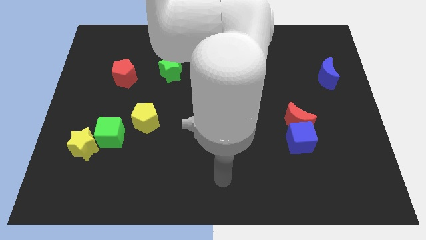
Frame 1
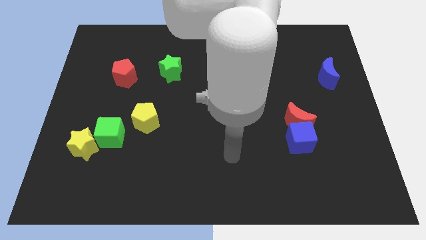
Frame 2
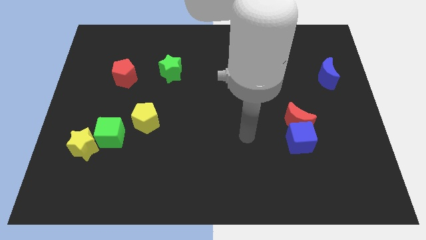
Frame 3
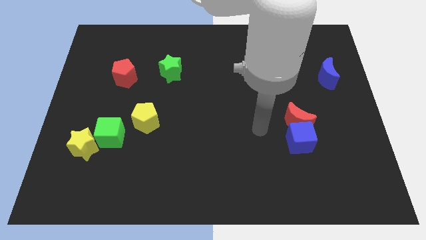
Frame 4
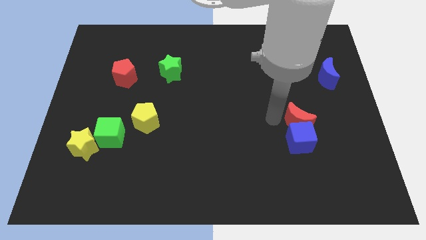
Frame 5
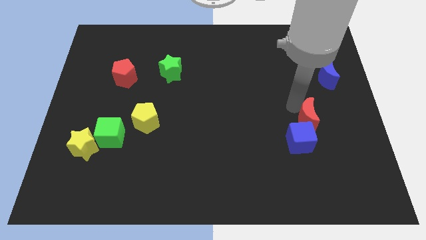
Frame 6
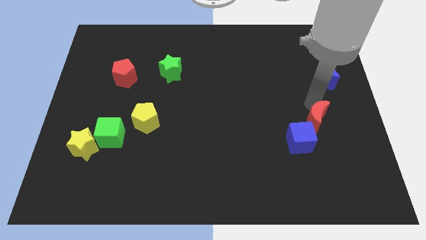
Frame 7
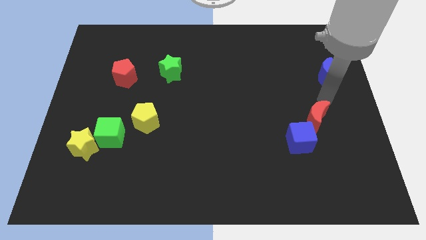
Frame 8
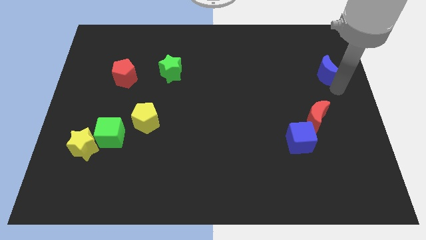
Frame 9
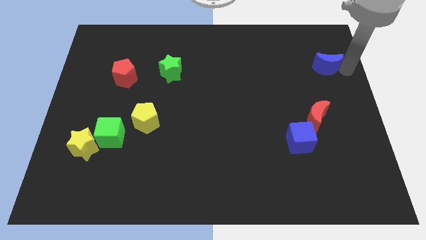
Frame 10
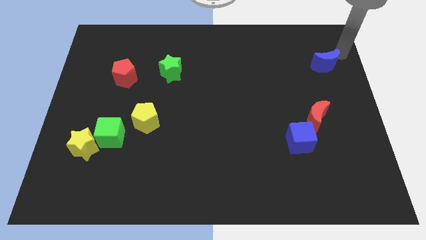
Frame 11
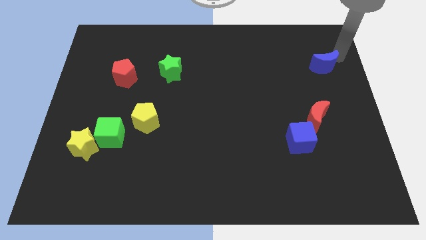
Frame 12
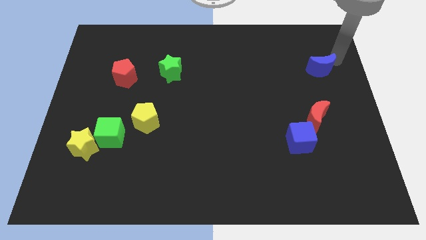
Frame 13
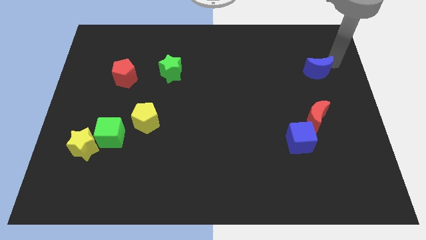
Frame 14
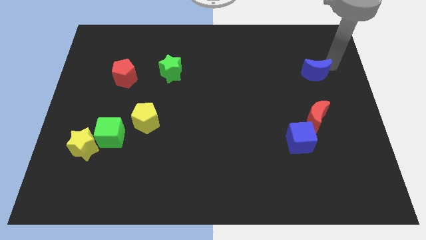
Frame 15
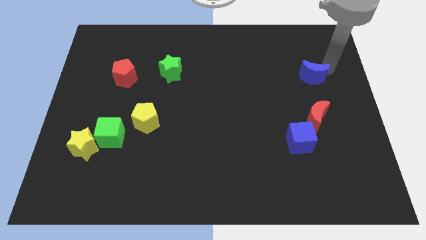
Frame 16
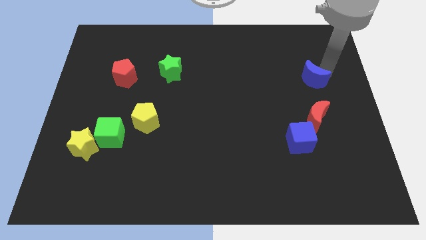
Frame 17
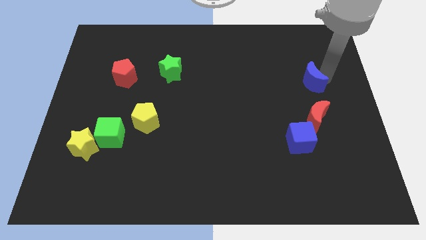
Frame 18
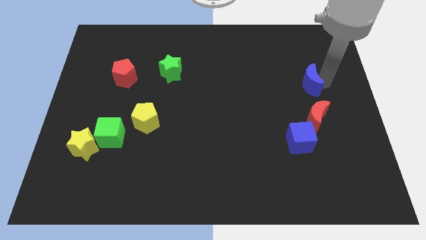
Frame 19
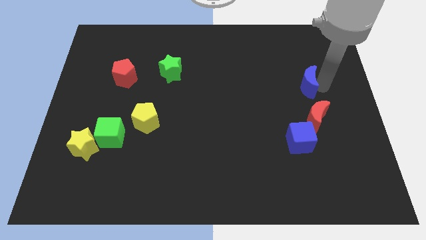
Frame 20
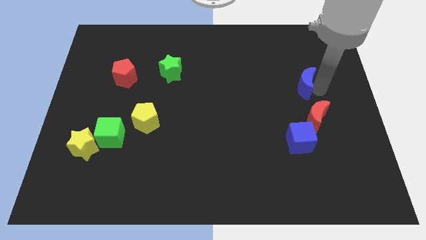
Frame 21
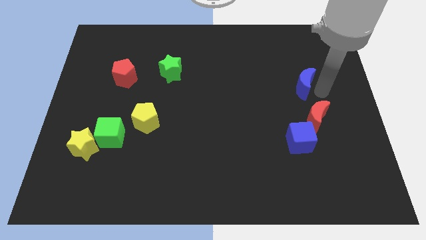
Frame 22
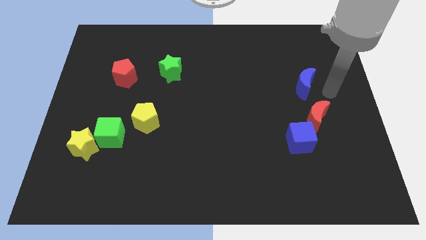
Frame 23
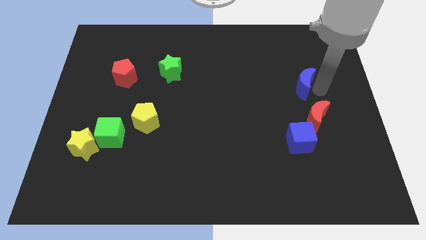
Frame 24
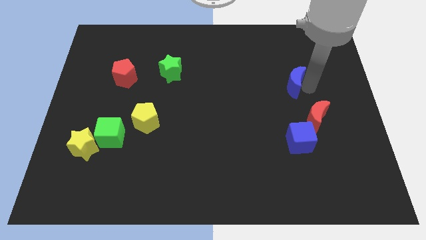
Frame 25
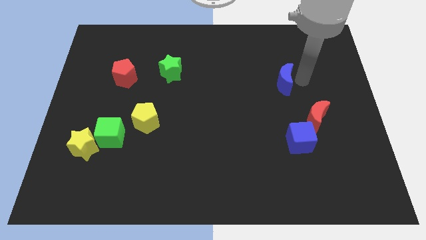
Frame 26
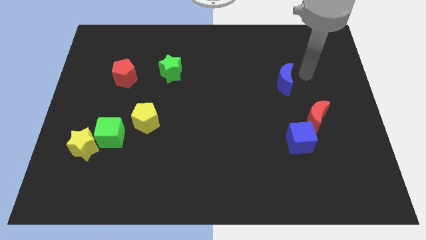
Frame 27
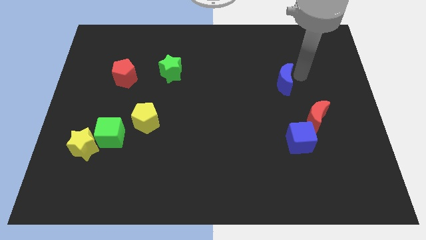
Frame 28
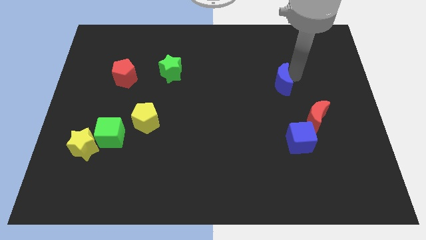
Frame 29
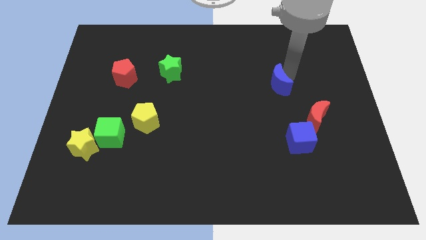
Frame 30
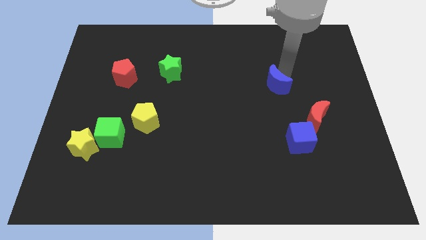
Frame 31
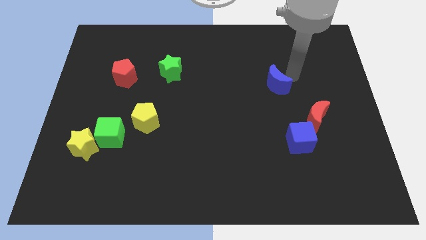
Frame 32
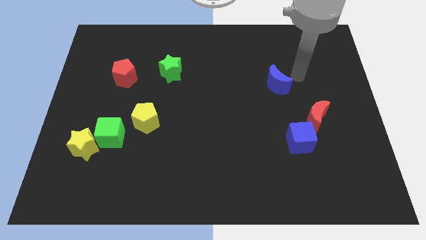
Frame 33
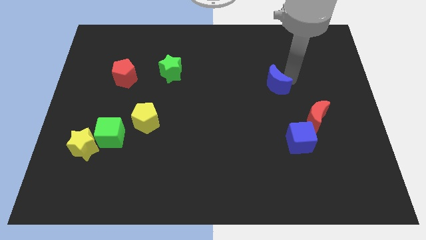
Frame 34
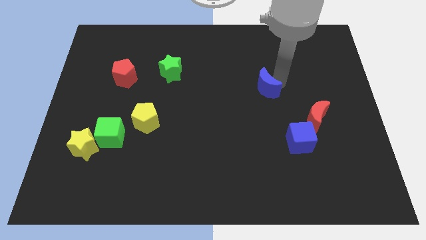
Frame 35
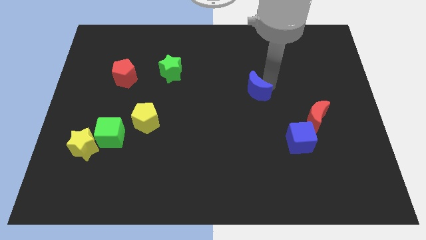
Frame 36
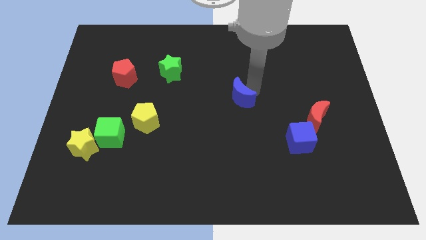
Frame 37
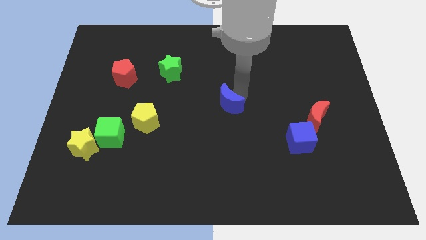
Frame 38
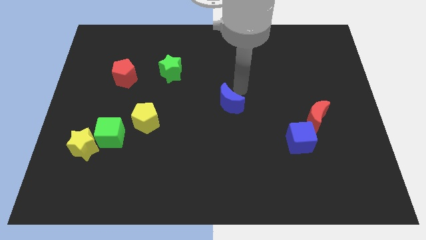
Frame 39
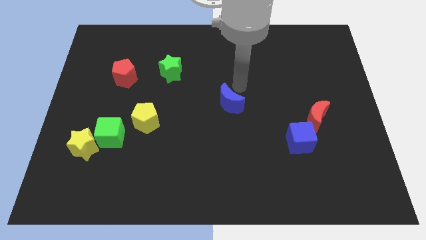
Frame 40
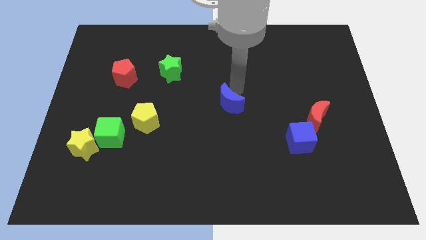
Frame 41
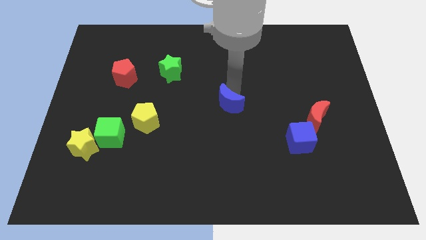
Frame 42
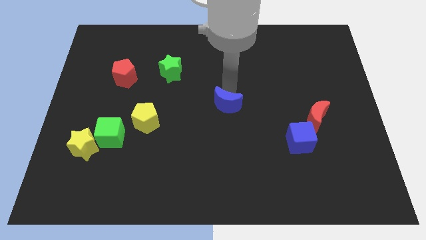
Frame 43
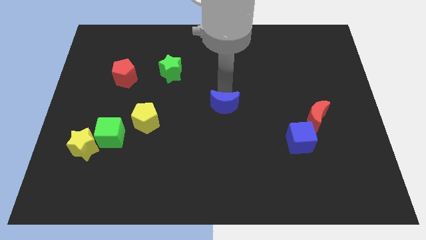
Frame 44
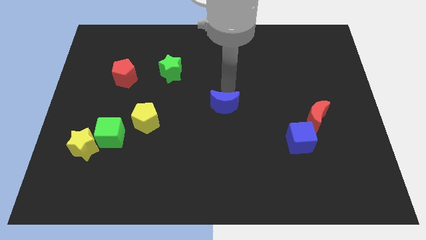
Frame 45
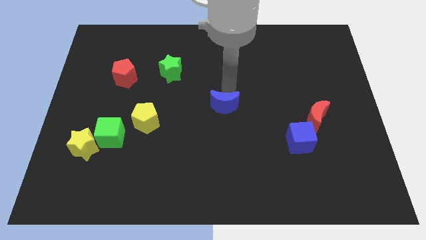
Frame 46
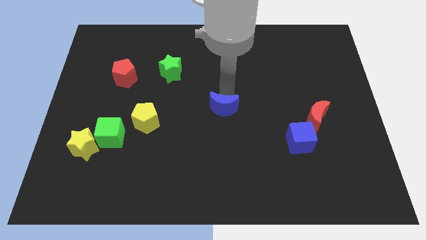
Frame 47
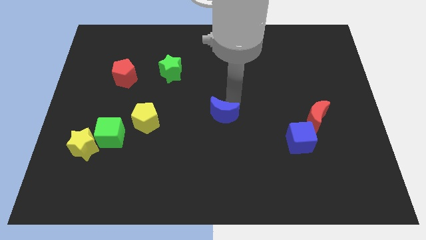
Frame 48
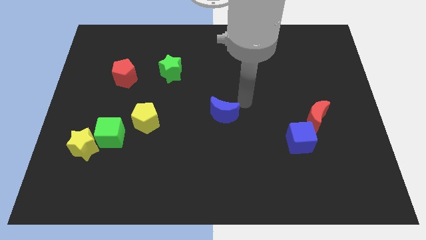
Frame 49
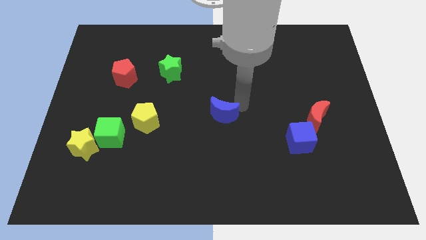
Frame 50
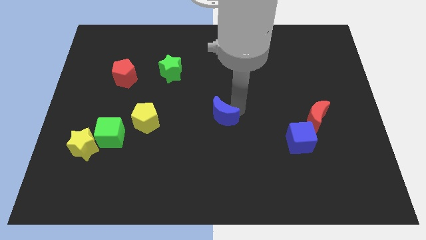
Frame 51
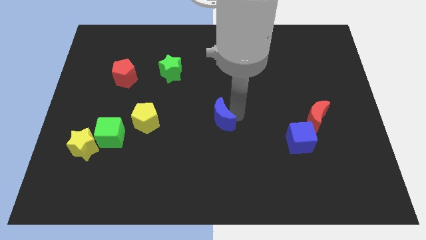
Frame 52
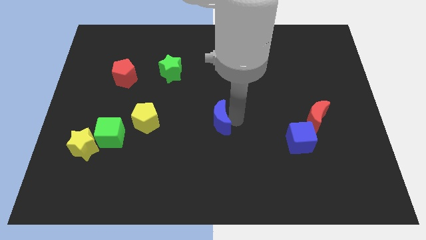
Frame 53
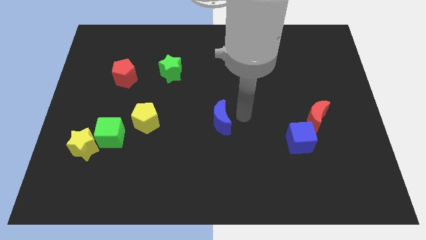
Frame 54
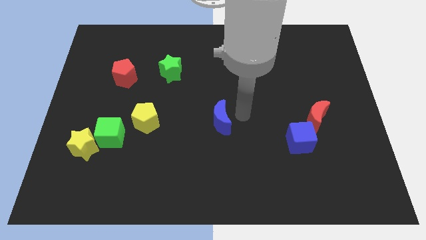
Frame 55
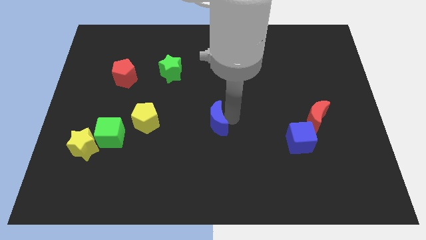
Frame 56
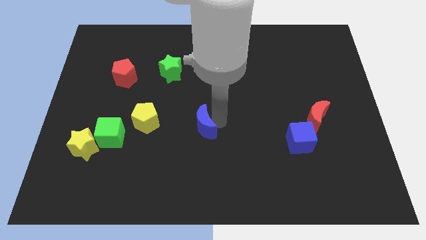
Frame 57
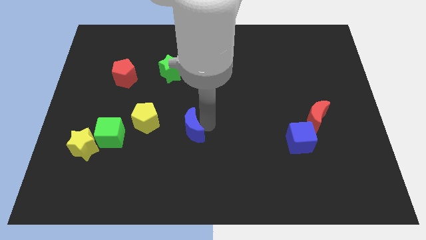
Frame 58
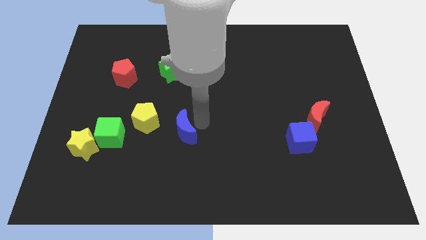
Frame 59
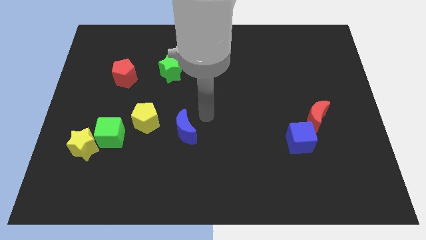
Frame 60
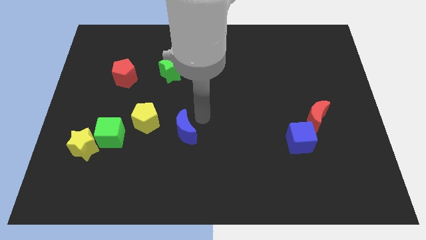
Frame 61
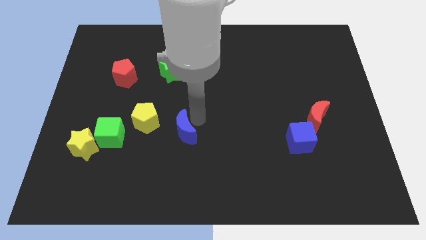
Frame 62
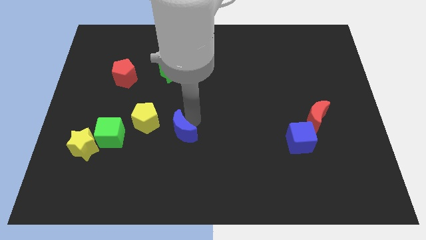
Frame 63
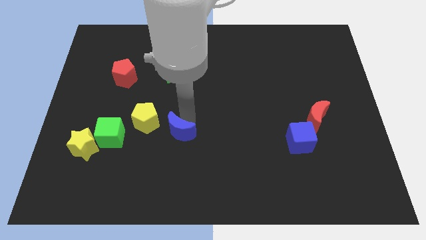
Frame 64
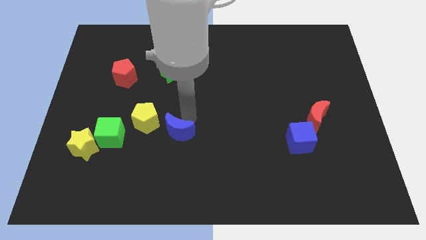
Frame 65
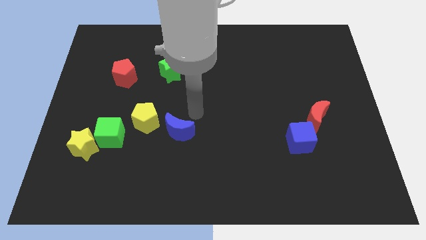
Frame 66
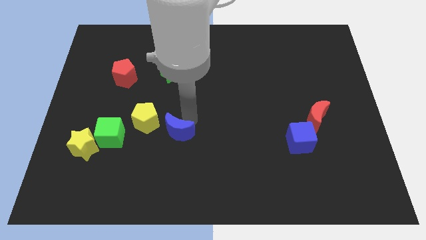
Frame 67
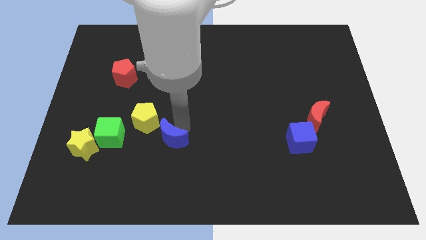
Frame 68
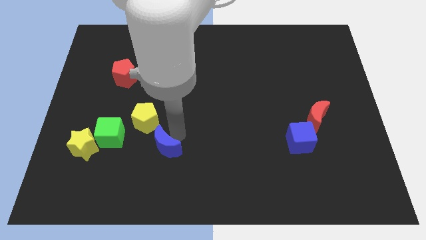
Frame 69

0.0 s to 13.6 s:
move the blue moon to the bottom side of the yellow pentagon
